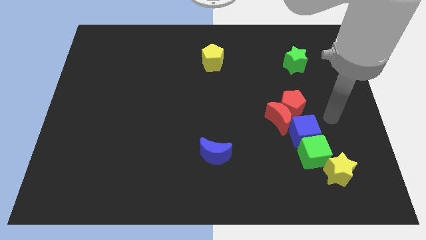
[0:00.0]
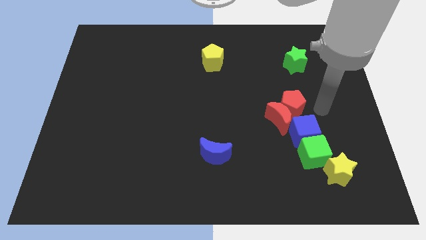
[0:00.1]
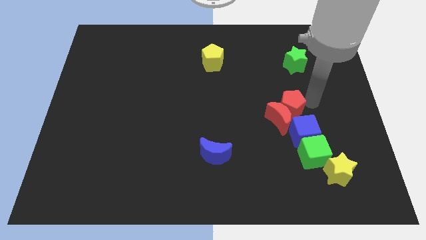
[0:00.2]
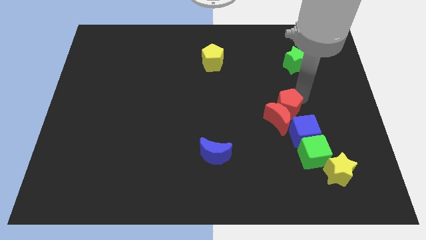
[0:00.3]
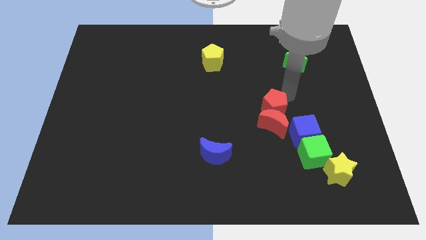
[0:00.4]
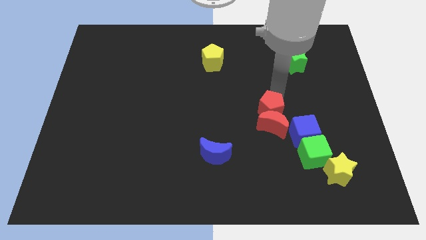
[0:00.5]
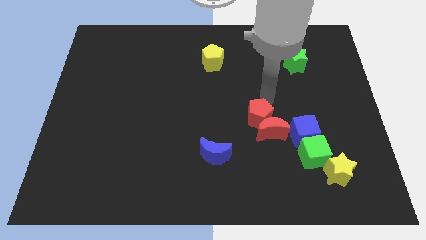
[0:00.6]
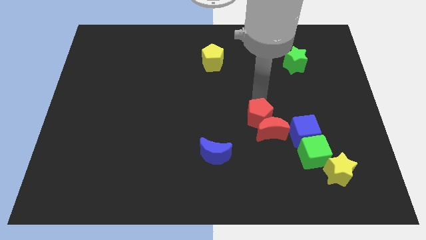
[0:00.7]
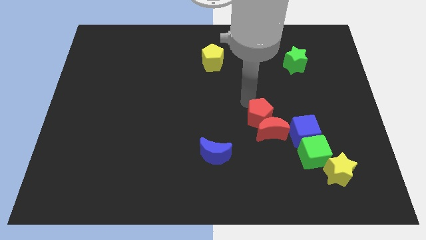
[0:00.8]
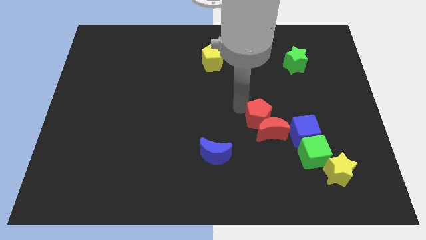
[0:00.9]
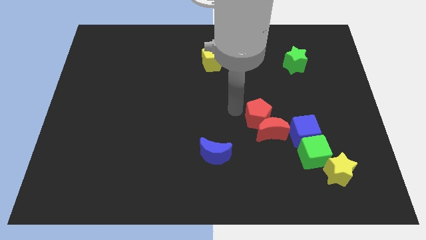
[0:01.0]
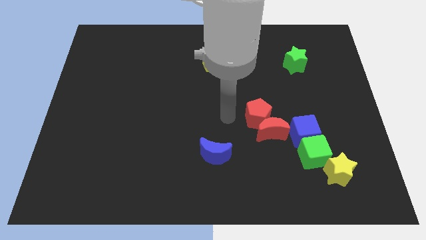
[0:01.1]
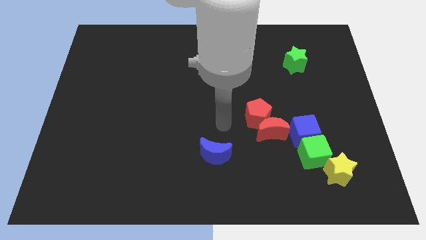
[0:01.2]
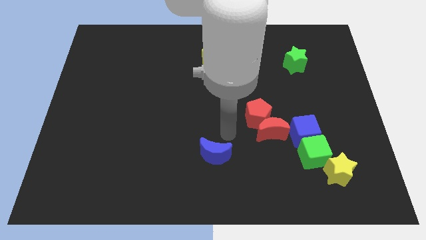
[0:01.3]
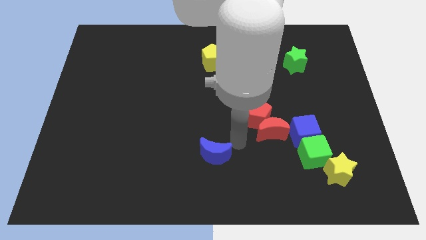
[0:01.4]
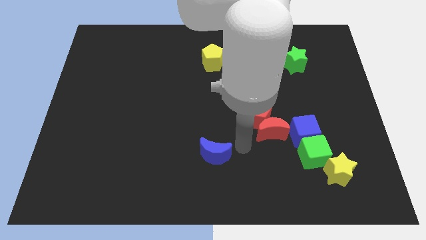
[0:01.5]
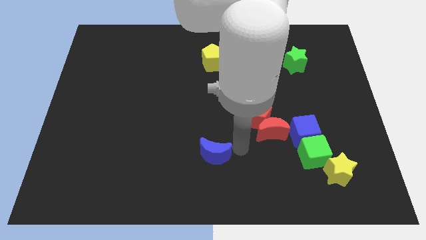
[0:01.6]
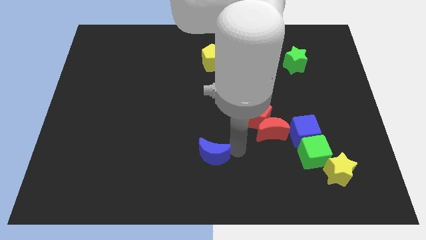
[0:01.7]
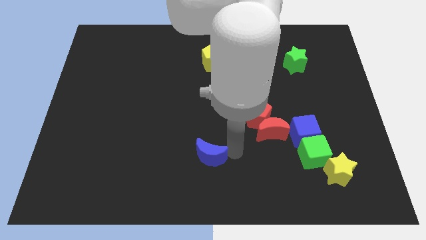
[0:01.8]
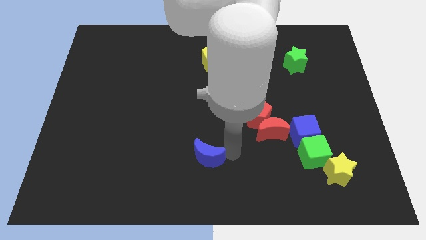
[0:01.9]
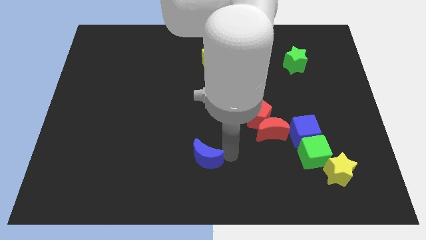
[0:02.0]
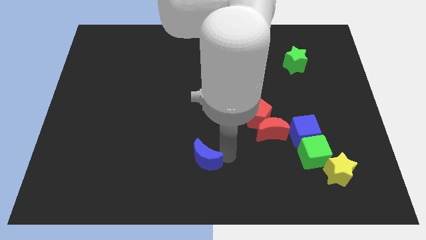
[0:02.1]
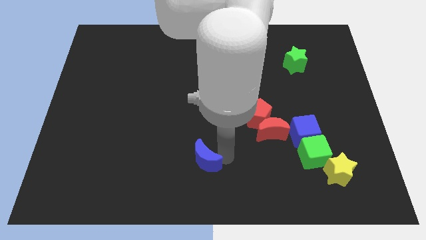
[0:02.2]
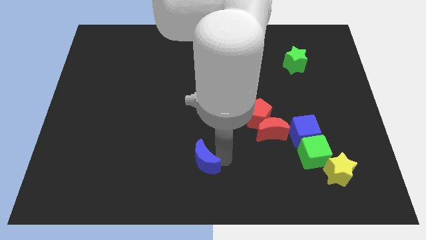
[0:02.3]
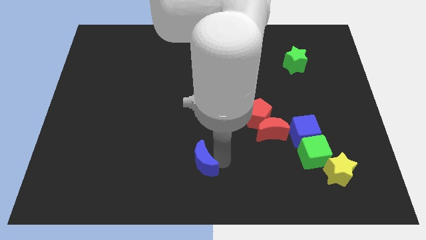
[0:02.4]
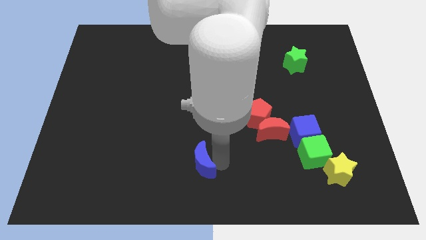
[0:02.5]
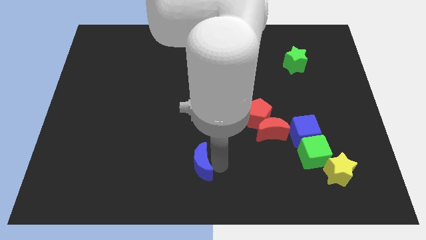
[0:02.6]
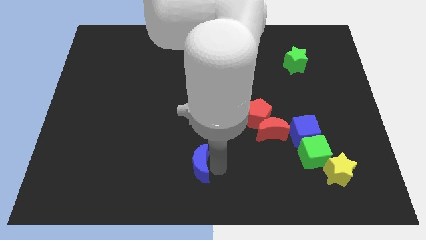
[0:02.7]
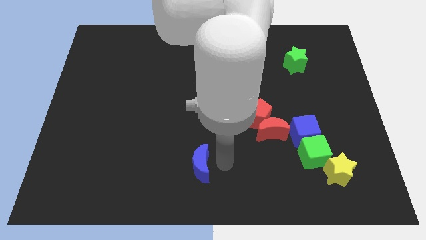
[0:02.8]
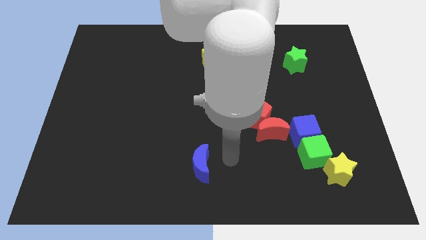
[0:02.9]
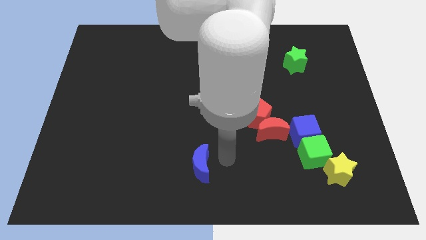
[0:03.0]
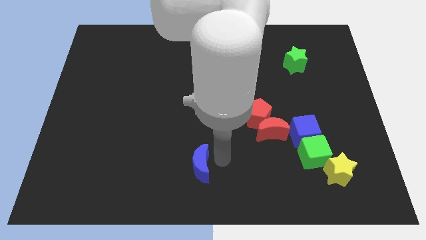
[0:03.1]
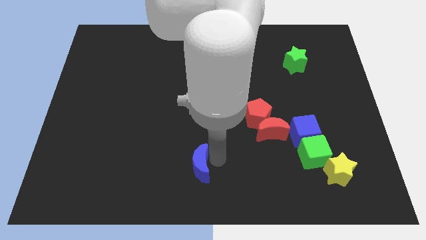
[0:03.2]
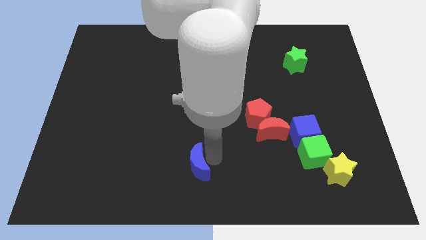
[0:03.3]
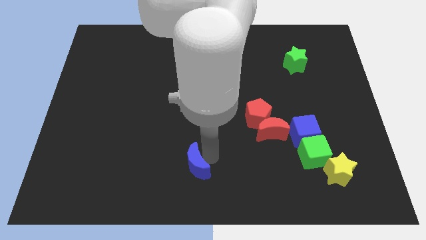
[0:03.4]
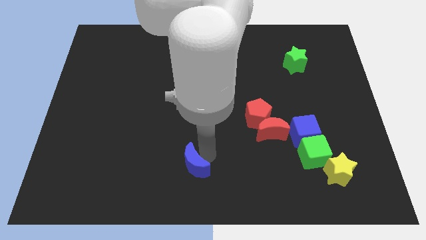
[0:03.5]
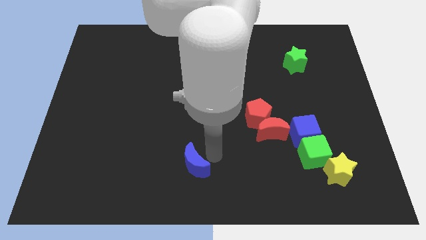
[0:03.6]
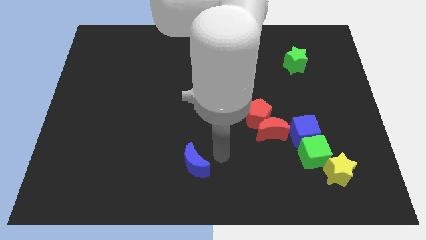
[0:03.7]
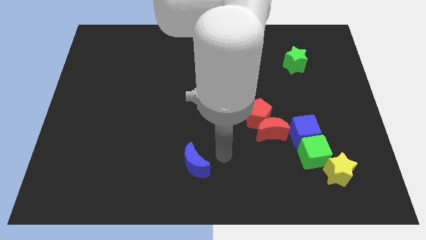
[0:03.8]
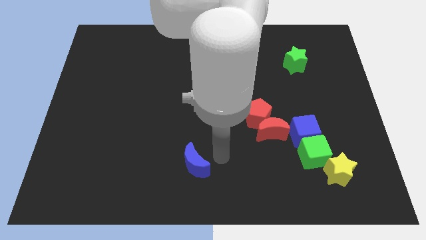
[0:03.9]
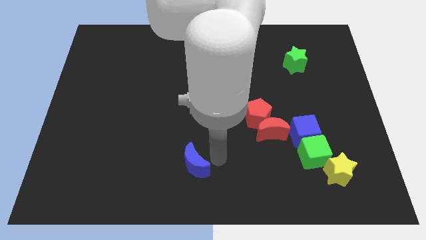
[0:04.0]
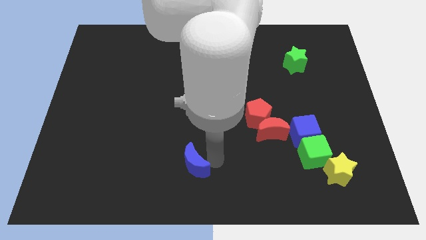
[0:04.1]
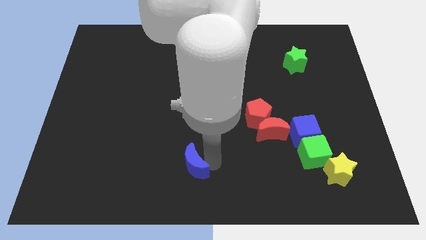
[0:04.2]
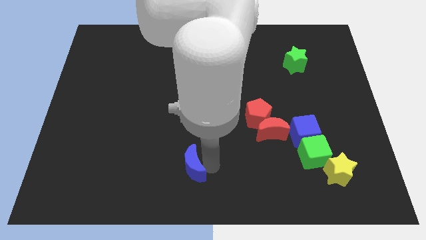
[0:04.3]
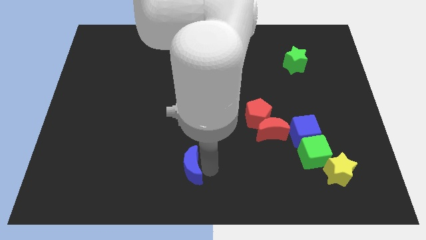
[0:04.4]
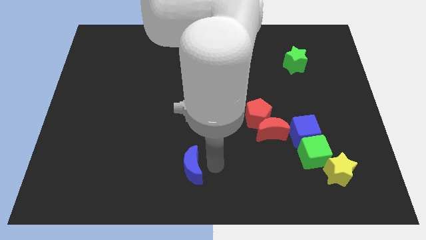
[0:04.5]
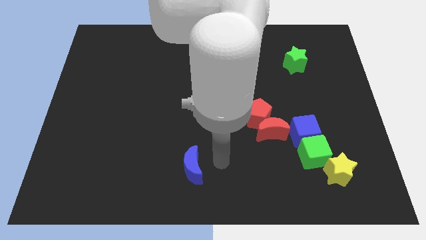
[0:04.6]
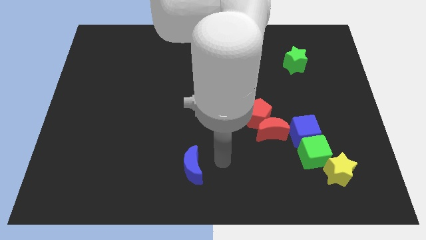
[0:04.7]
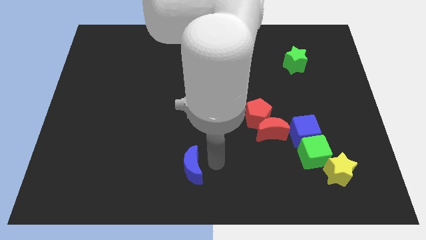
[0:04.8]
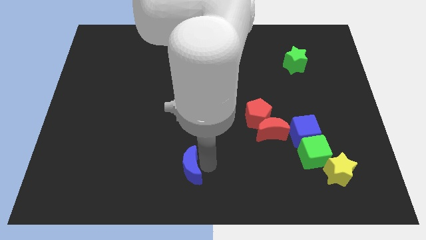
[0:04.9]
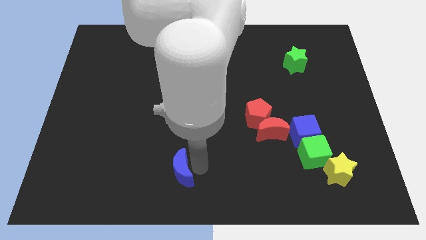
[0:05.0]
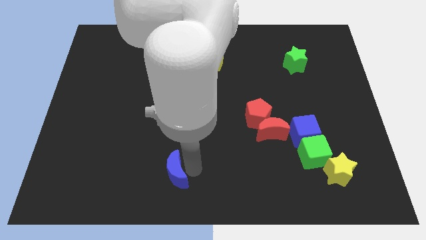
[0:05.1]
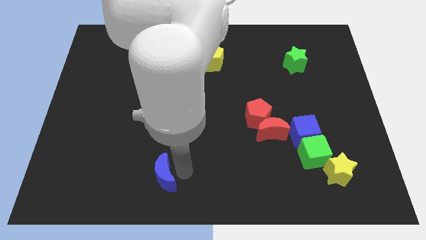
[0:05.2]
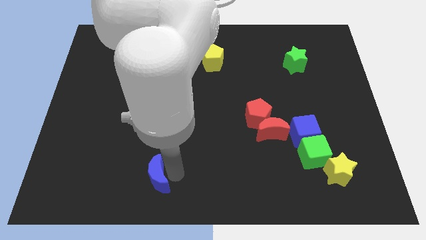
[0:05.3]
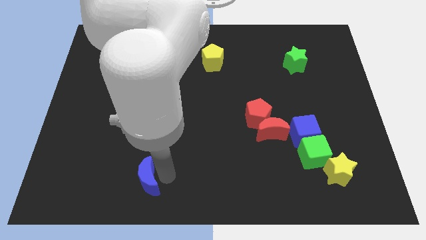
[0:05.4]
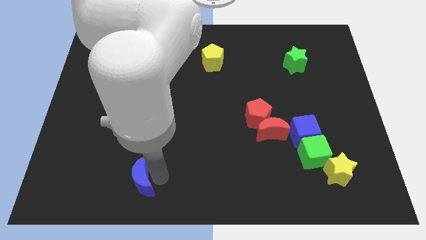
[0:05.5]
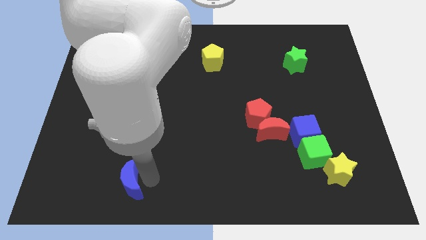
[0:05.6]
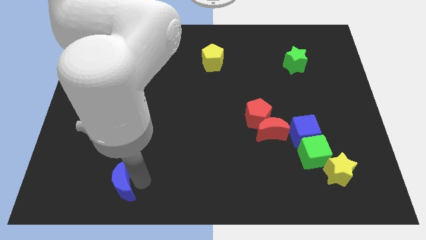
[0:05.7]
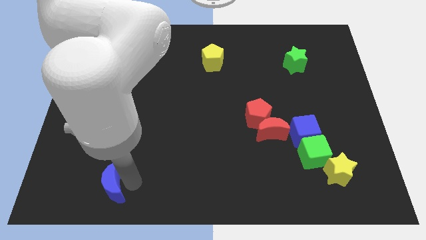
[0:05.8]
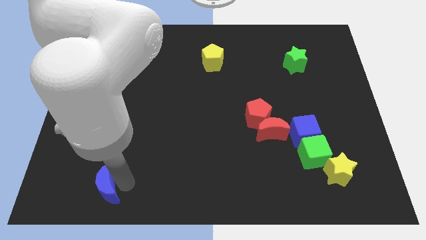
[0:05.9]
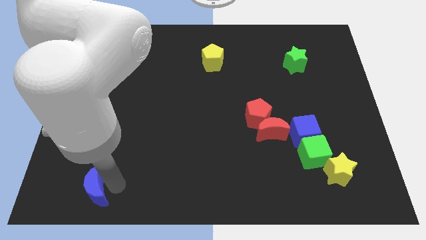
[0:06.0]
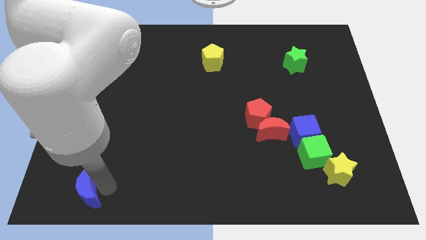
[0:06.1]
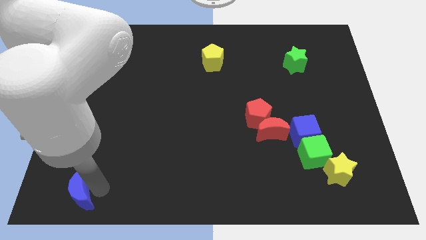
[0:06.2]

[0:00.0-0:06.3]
slide the blue moon to the bottom left

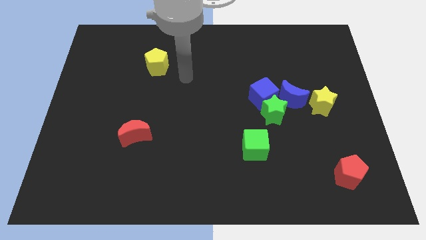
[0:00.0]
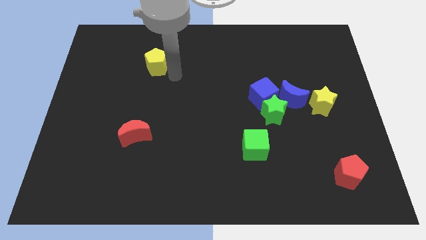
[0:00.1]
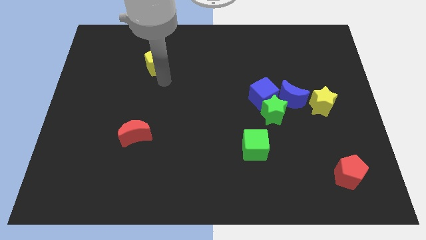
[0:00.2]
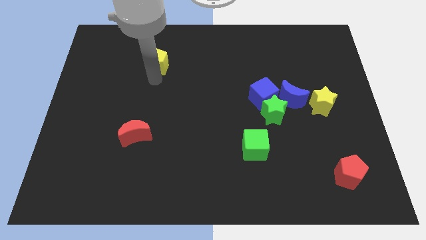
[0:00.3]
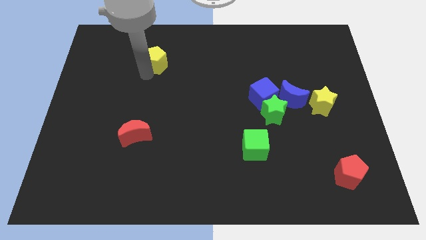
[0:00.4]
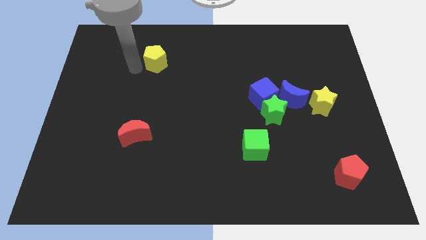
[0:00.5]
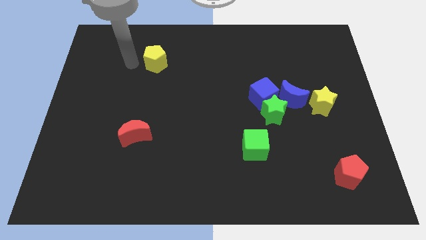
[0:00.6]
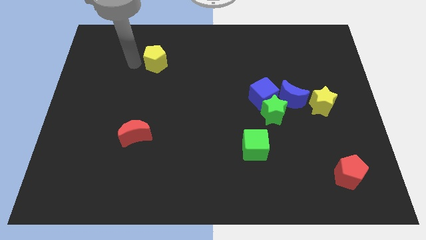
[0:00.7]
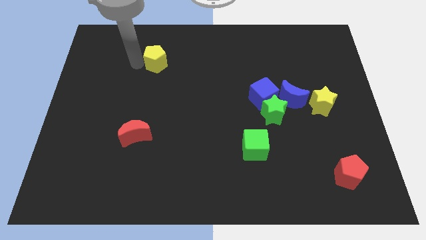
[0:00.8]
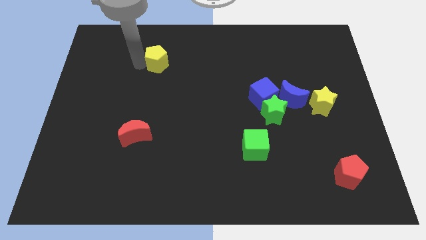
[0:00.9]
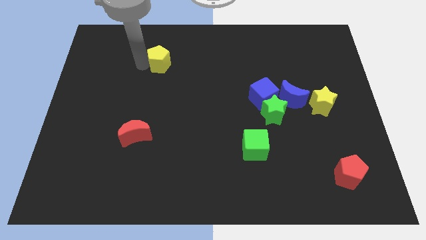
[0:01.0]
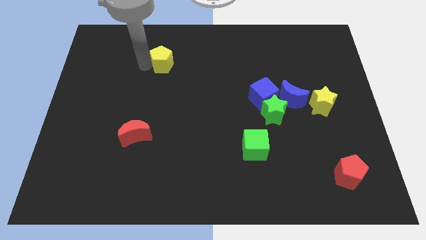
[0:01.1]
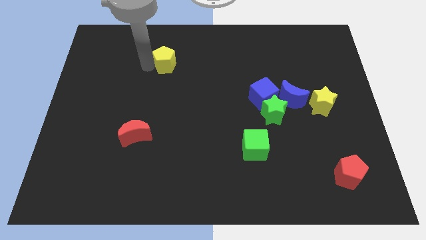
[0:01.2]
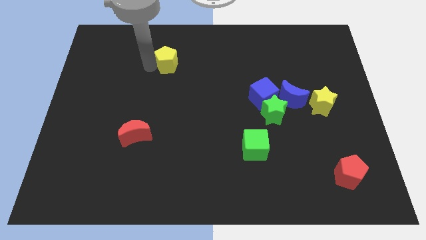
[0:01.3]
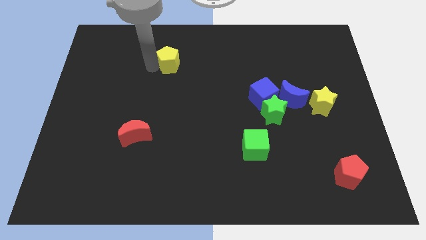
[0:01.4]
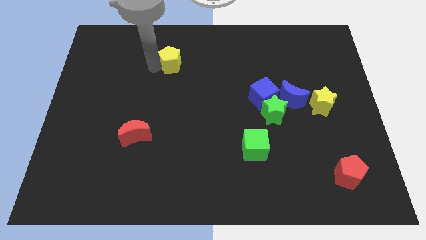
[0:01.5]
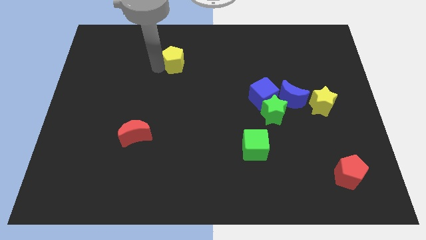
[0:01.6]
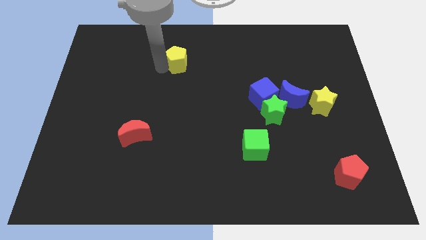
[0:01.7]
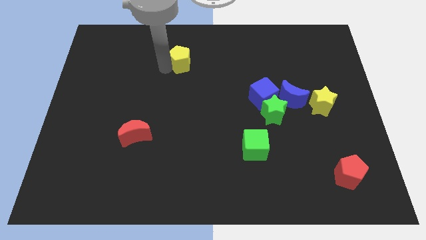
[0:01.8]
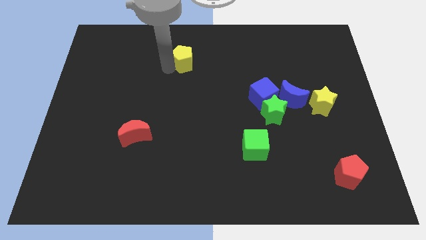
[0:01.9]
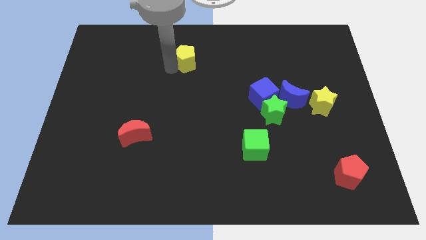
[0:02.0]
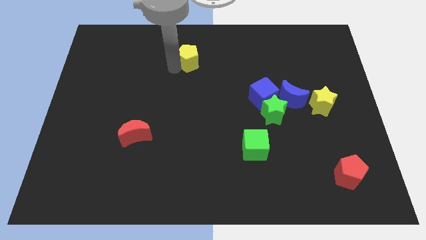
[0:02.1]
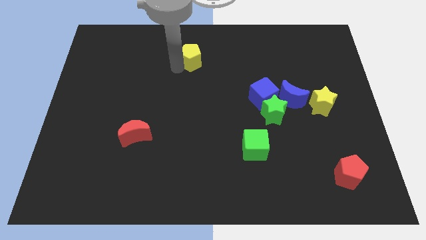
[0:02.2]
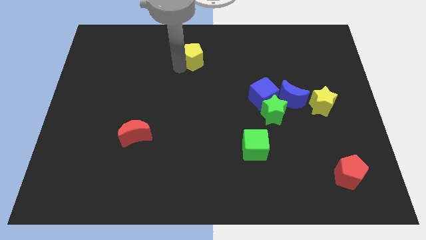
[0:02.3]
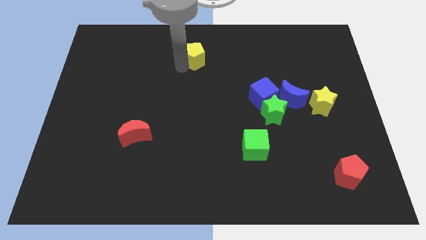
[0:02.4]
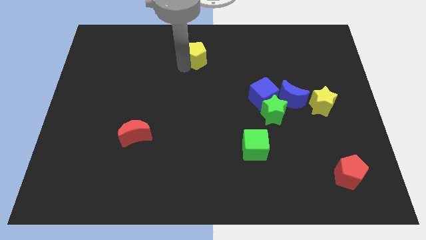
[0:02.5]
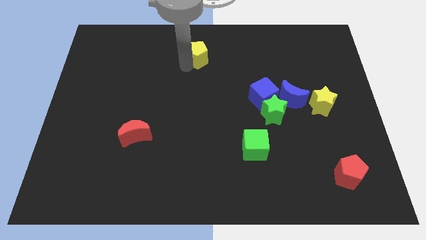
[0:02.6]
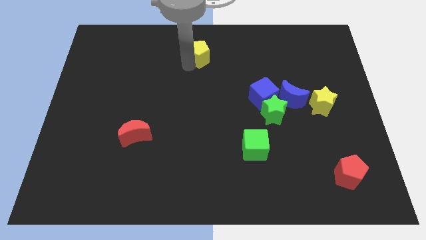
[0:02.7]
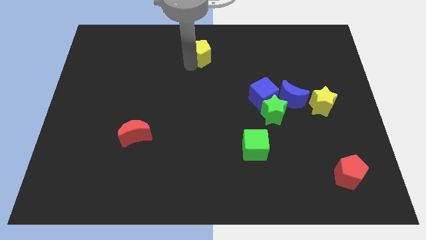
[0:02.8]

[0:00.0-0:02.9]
slide the yellow pentagon to the top side
